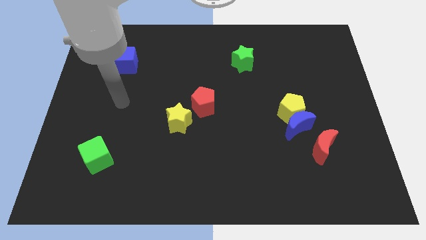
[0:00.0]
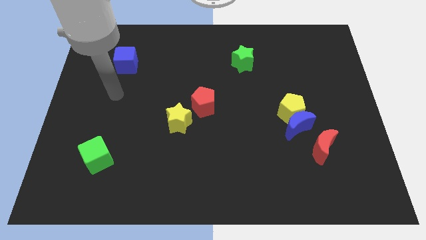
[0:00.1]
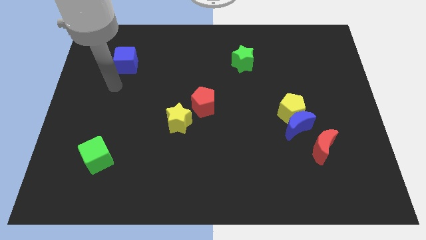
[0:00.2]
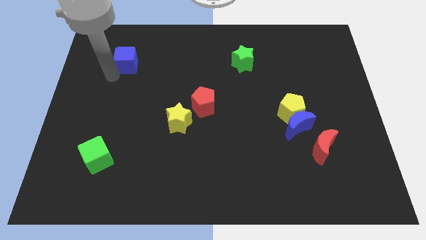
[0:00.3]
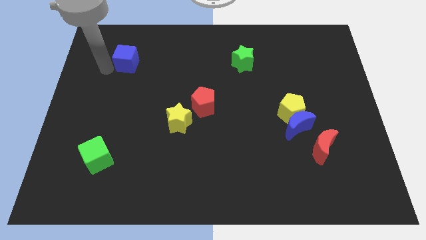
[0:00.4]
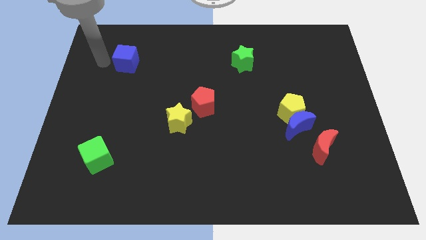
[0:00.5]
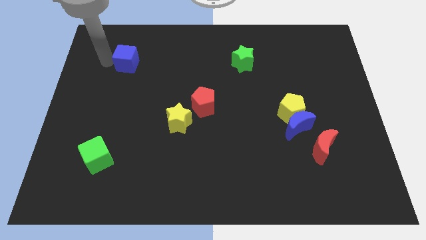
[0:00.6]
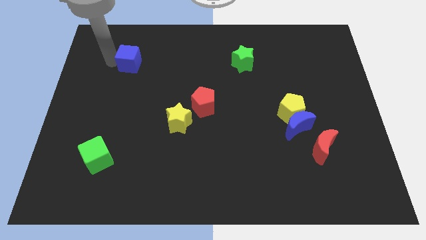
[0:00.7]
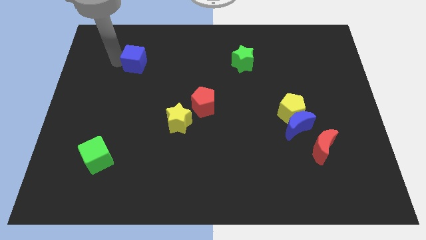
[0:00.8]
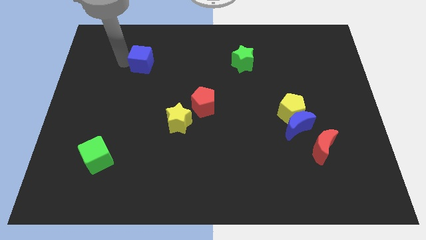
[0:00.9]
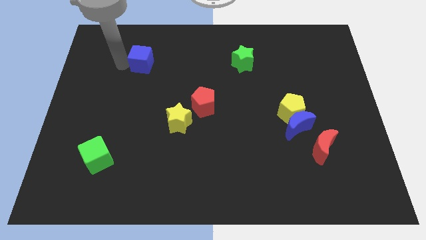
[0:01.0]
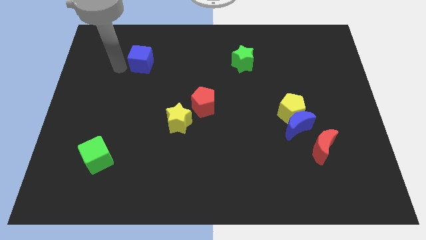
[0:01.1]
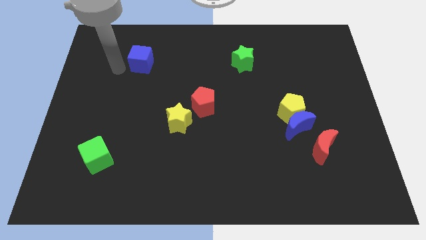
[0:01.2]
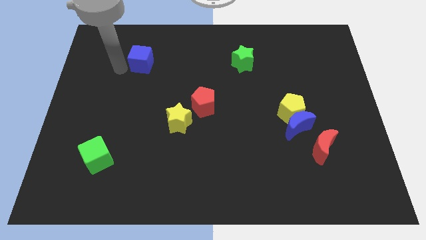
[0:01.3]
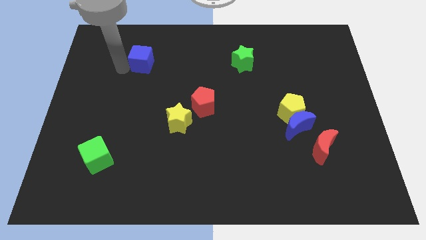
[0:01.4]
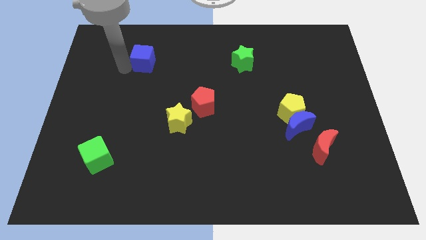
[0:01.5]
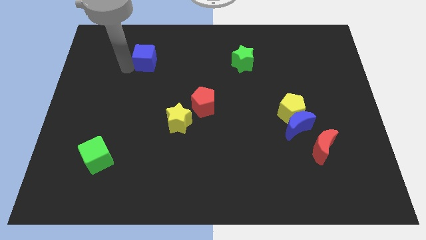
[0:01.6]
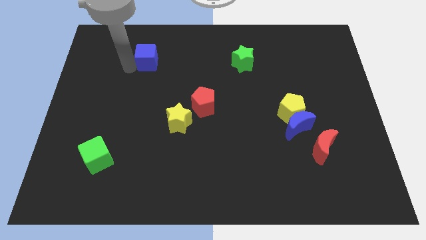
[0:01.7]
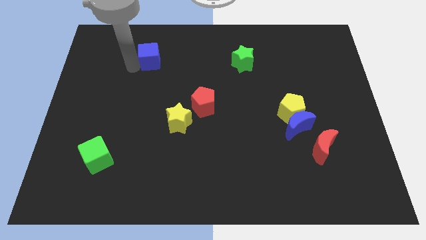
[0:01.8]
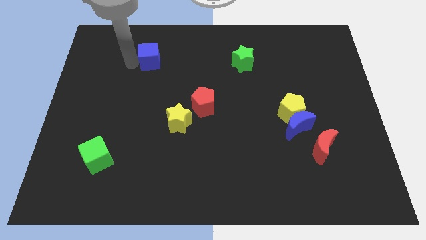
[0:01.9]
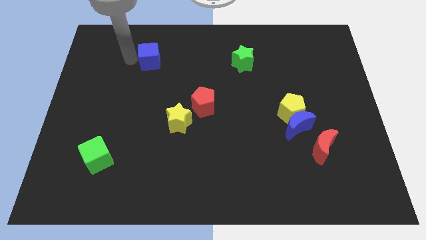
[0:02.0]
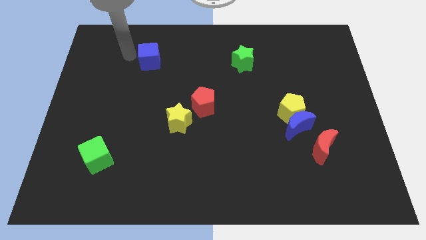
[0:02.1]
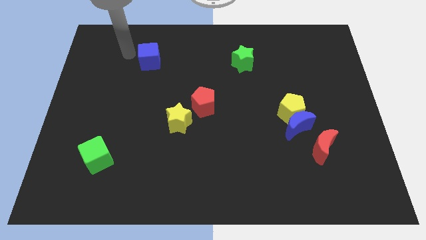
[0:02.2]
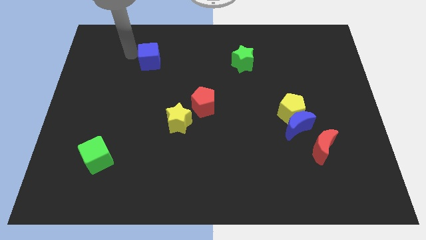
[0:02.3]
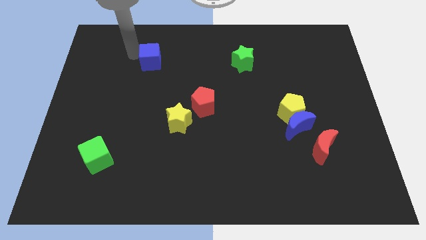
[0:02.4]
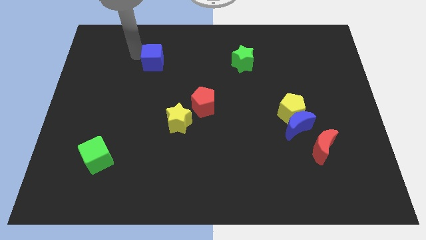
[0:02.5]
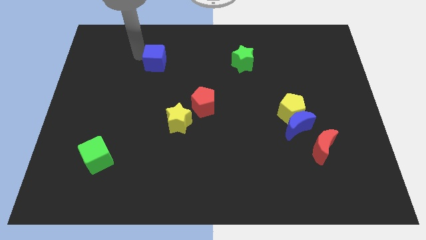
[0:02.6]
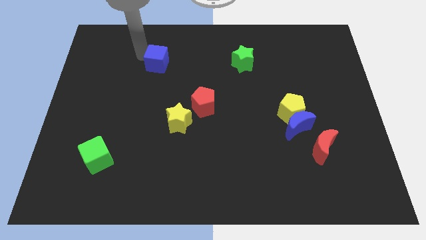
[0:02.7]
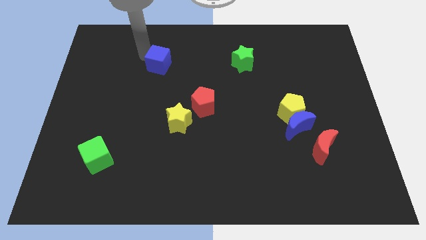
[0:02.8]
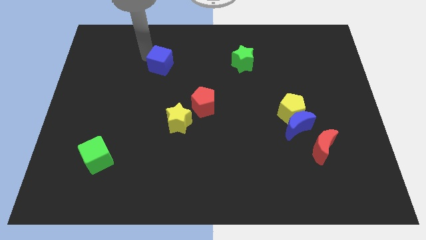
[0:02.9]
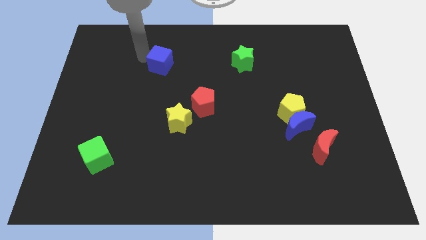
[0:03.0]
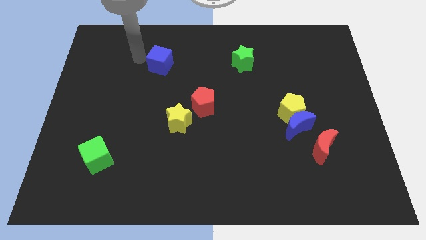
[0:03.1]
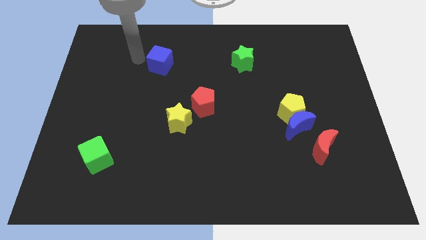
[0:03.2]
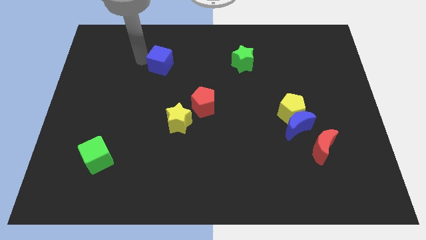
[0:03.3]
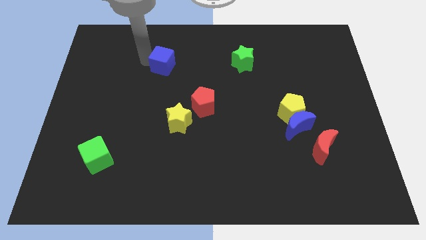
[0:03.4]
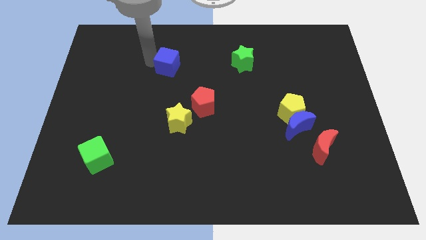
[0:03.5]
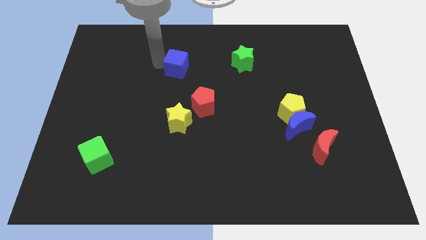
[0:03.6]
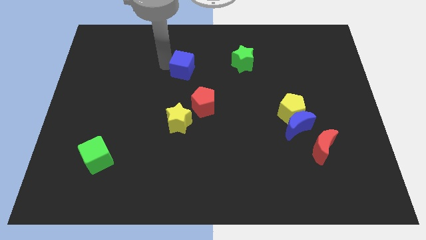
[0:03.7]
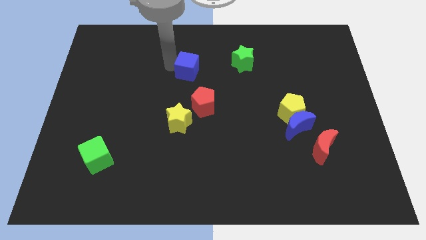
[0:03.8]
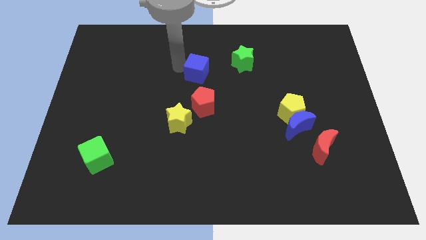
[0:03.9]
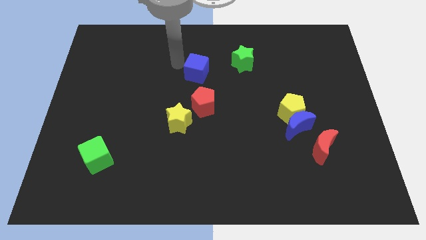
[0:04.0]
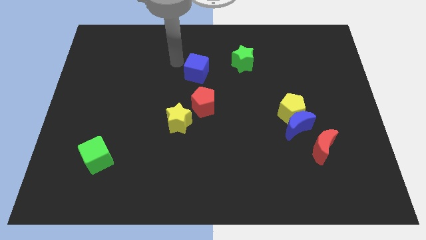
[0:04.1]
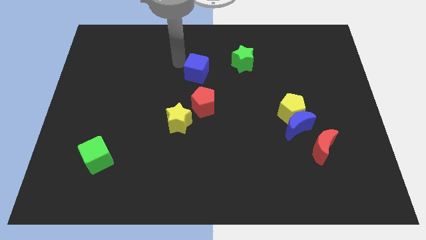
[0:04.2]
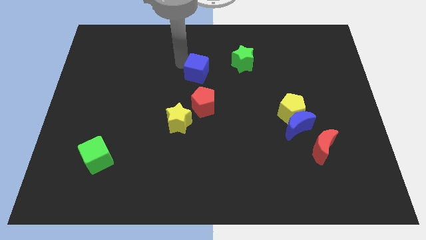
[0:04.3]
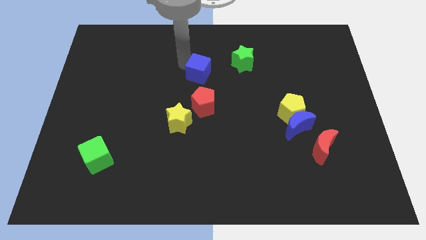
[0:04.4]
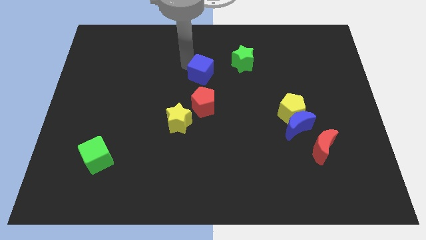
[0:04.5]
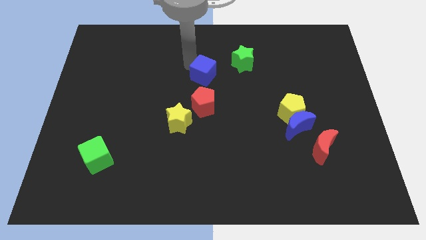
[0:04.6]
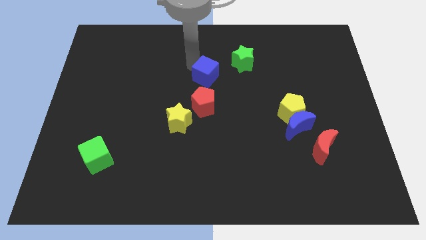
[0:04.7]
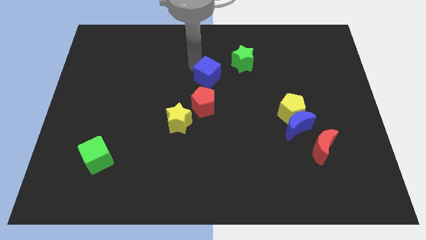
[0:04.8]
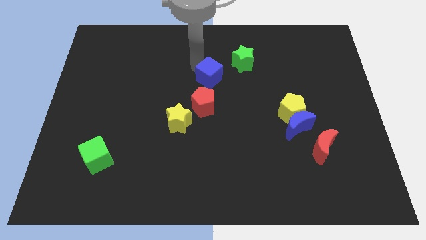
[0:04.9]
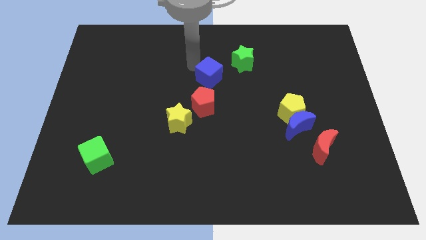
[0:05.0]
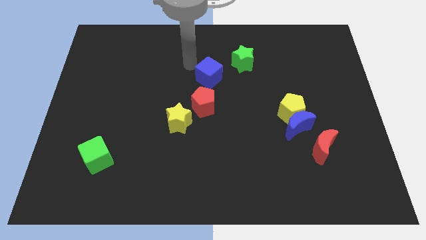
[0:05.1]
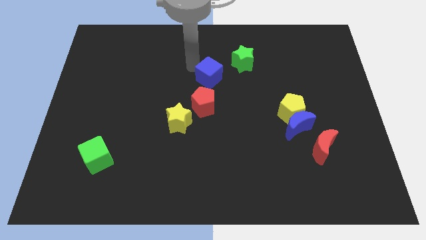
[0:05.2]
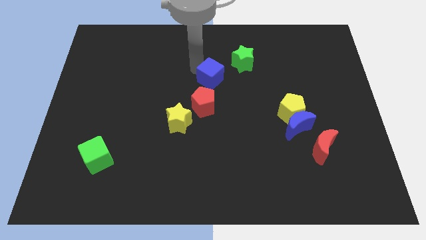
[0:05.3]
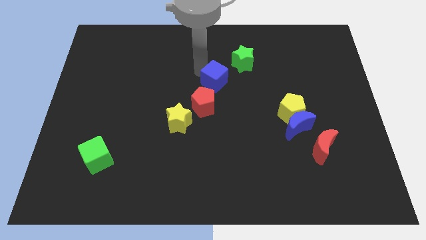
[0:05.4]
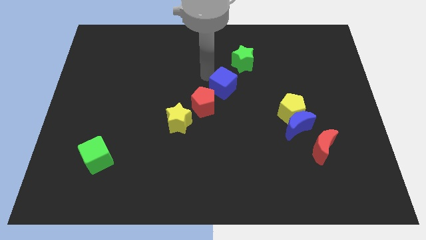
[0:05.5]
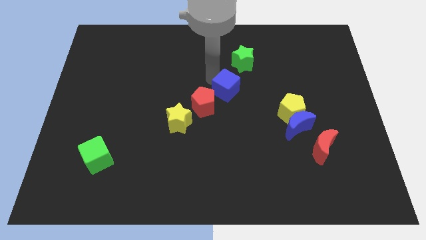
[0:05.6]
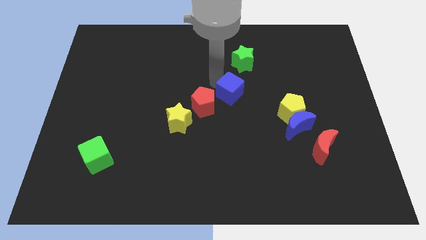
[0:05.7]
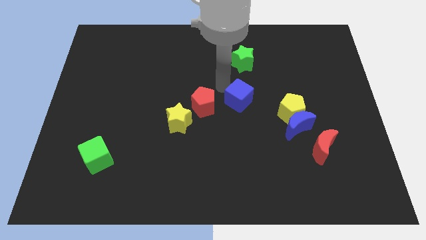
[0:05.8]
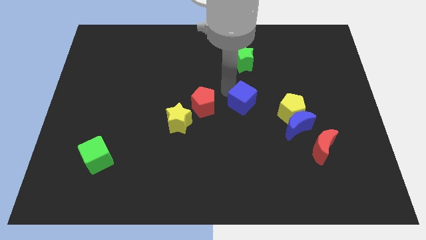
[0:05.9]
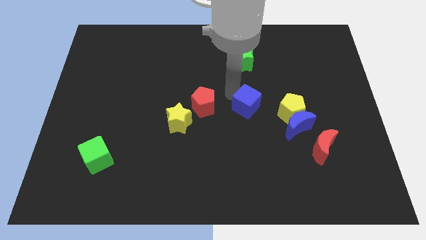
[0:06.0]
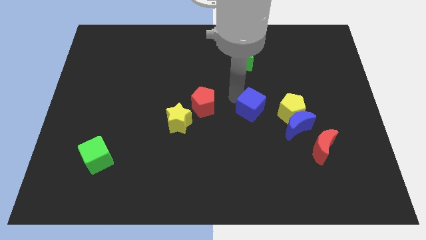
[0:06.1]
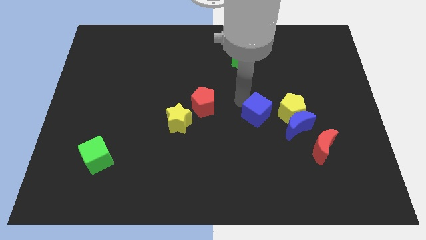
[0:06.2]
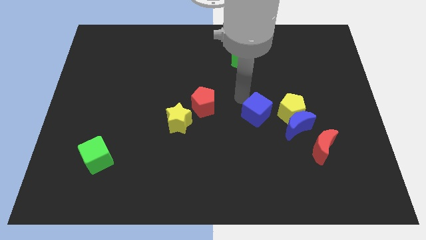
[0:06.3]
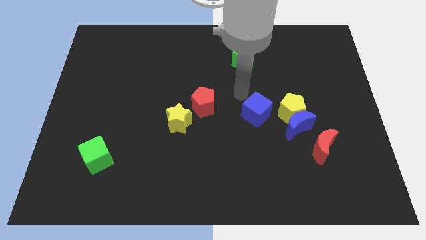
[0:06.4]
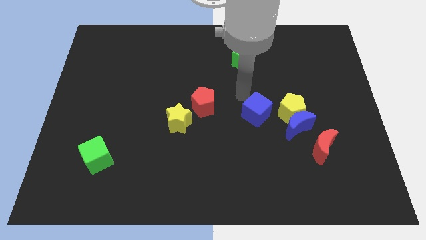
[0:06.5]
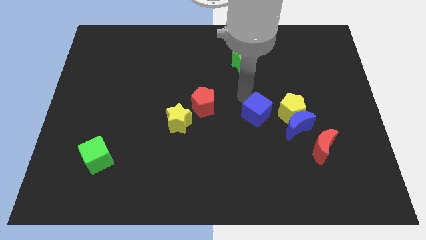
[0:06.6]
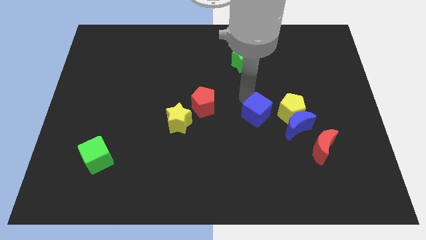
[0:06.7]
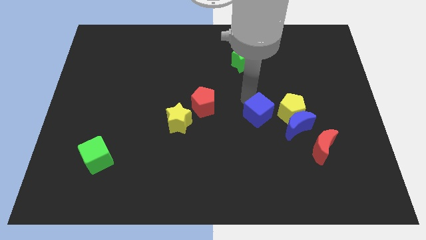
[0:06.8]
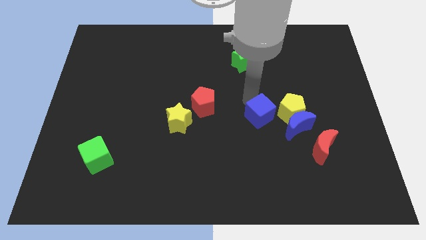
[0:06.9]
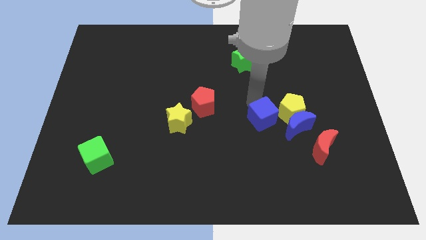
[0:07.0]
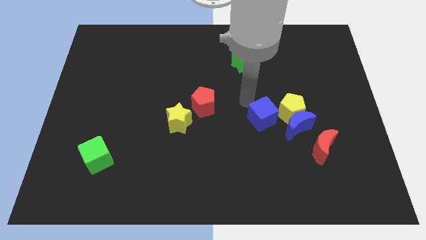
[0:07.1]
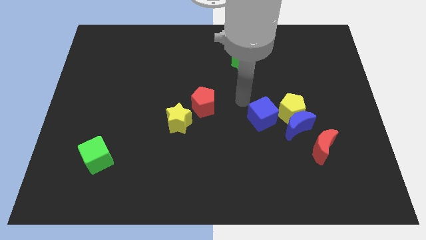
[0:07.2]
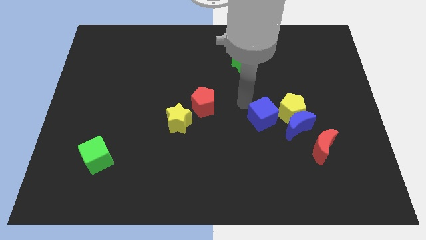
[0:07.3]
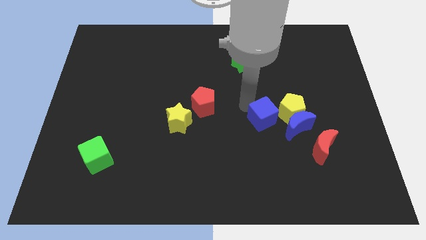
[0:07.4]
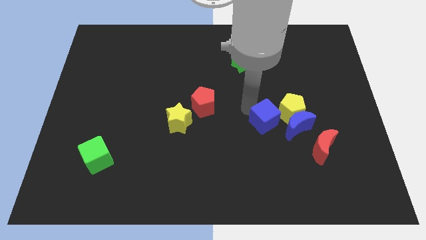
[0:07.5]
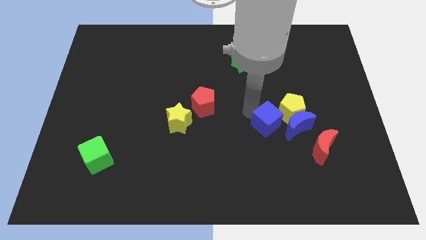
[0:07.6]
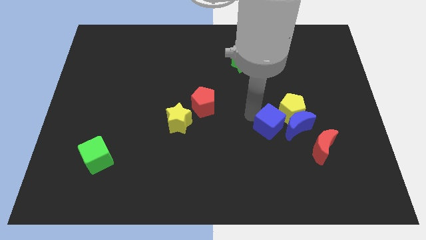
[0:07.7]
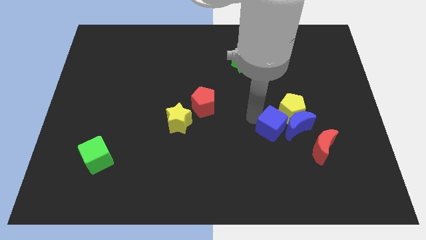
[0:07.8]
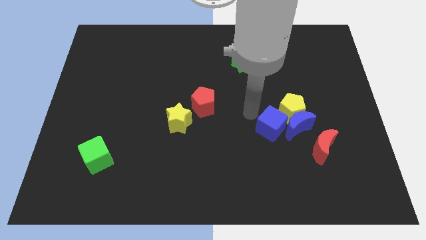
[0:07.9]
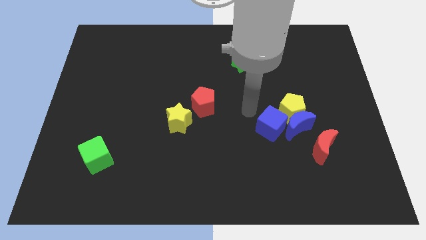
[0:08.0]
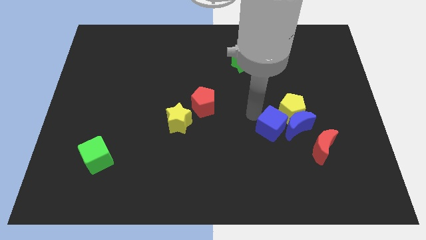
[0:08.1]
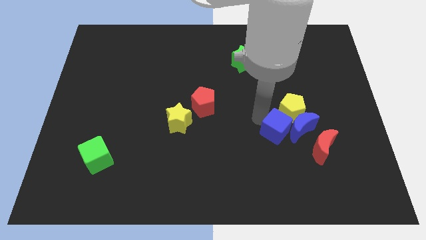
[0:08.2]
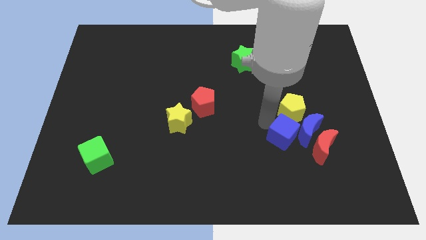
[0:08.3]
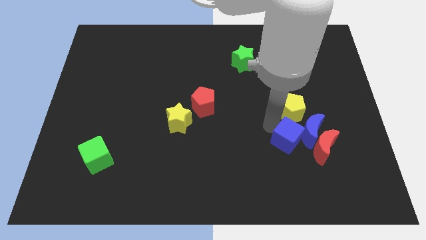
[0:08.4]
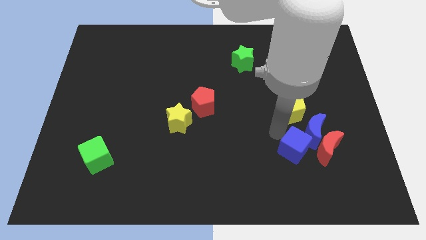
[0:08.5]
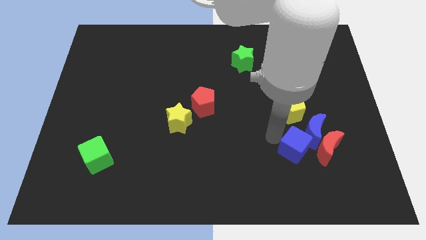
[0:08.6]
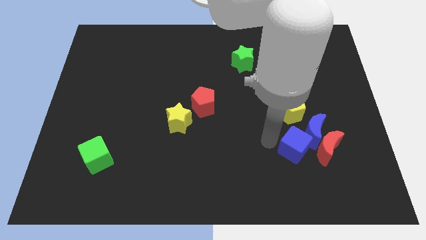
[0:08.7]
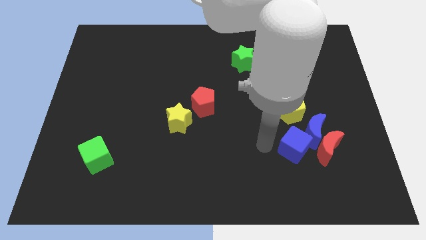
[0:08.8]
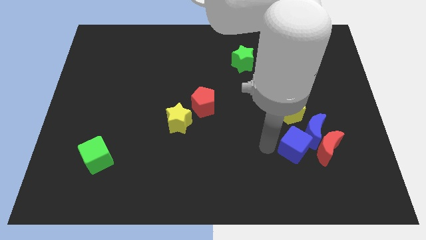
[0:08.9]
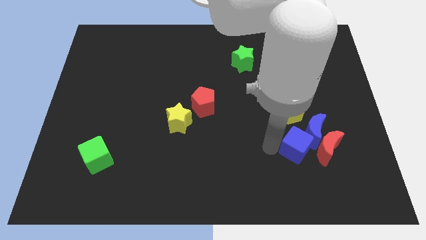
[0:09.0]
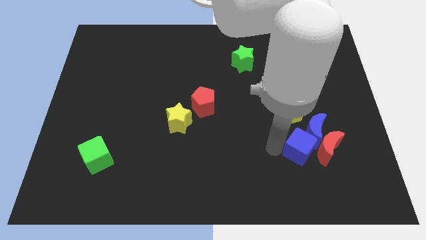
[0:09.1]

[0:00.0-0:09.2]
slide the blue cube to the red moon
